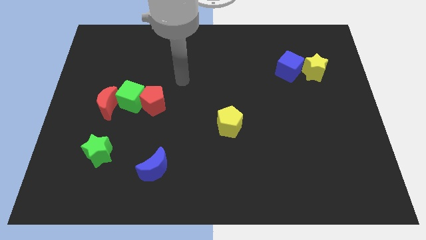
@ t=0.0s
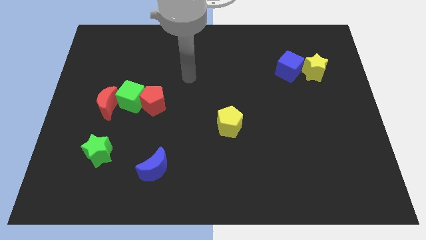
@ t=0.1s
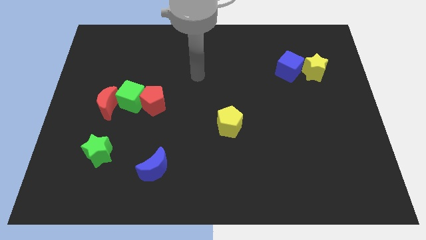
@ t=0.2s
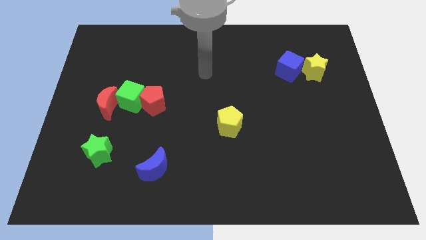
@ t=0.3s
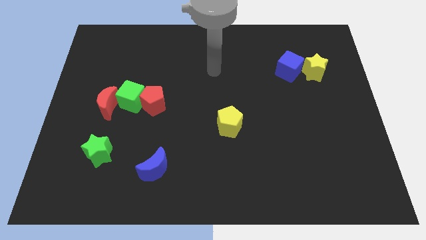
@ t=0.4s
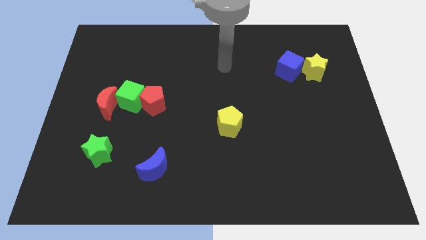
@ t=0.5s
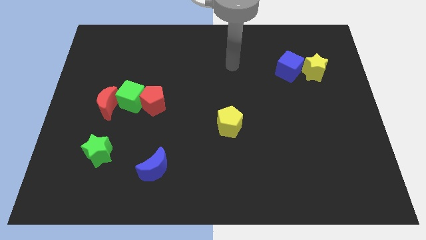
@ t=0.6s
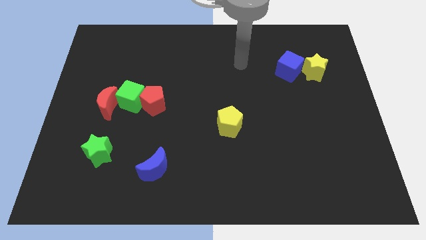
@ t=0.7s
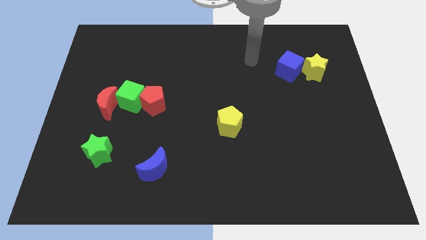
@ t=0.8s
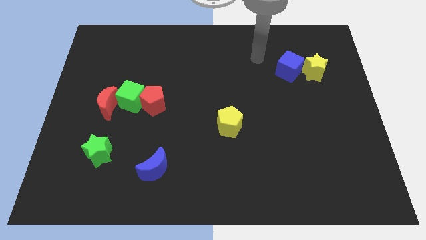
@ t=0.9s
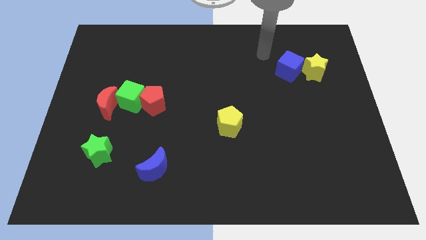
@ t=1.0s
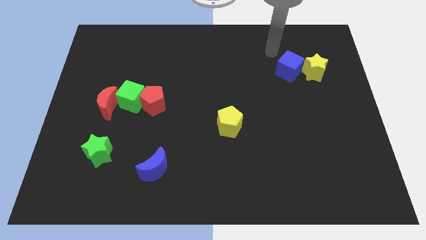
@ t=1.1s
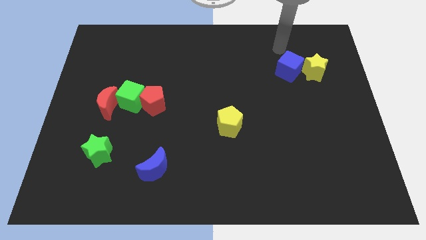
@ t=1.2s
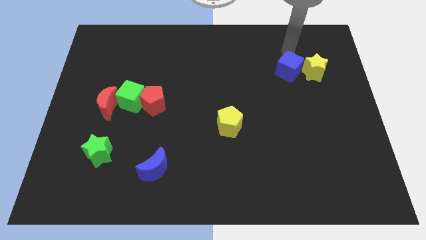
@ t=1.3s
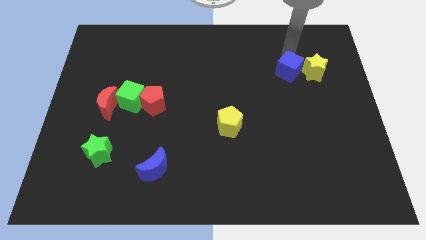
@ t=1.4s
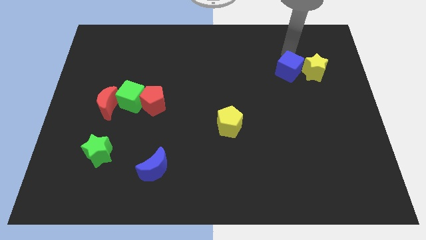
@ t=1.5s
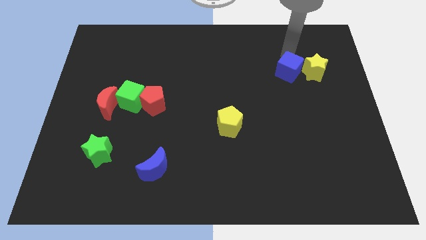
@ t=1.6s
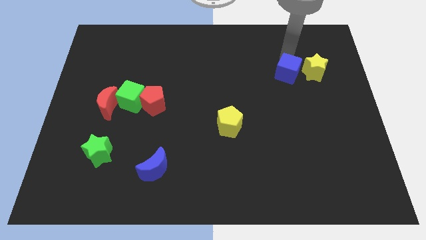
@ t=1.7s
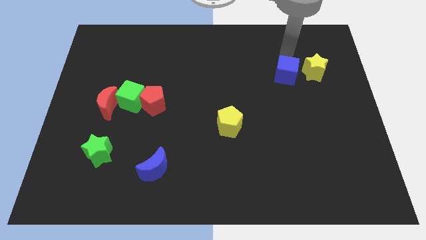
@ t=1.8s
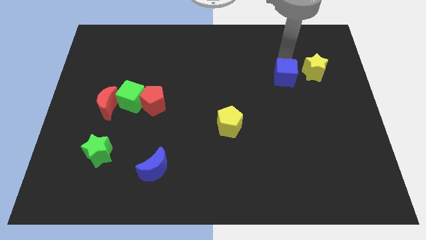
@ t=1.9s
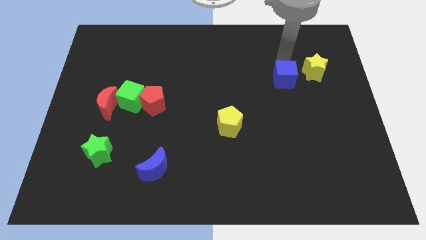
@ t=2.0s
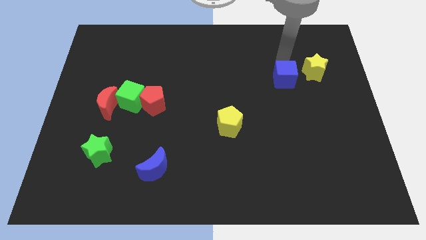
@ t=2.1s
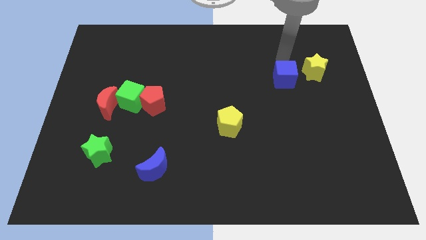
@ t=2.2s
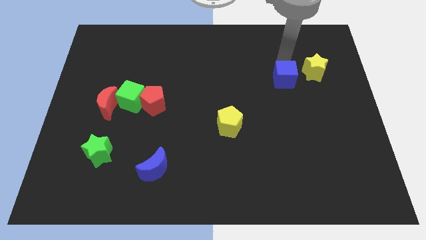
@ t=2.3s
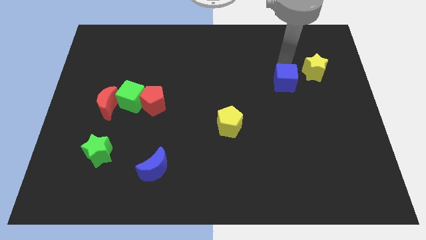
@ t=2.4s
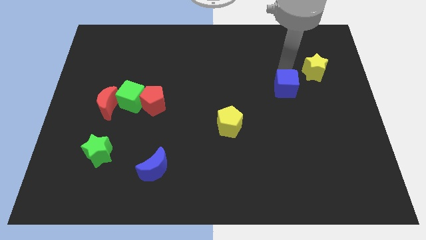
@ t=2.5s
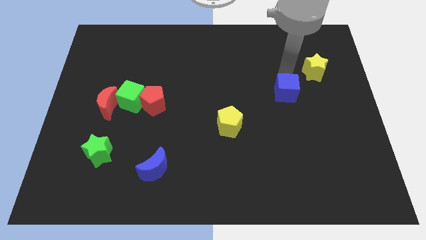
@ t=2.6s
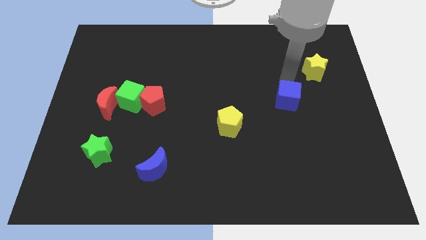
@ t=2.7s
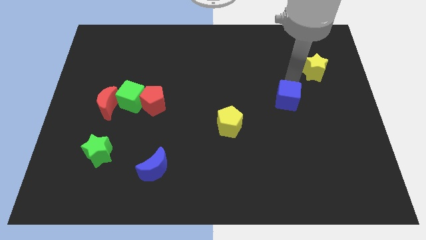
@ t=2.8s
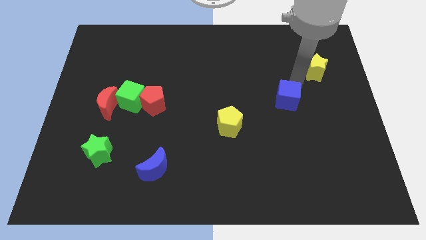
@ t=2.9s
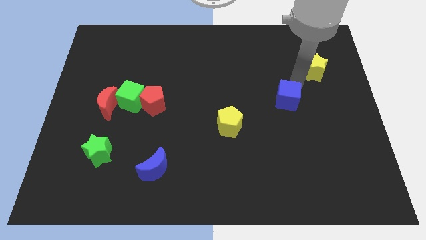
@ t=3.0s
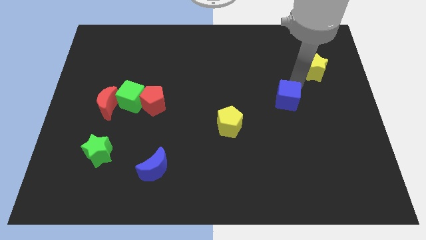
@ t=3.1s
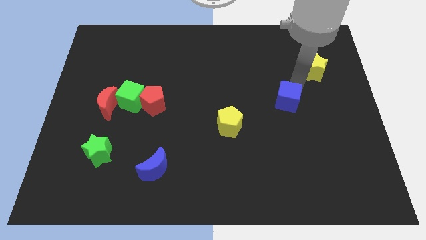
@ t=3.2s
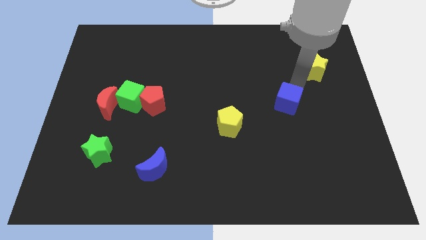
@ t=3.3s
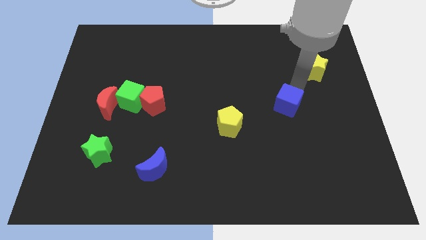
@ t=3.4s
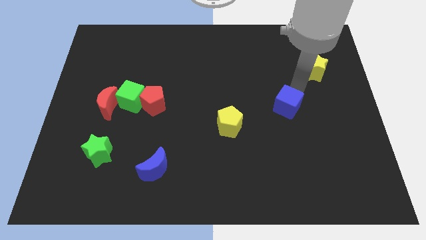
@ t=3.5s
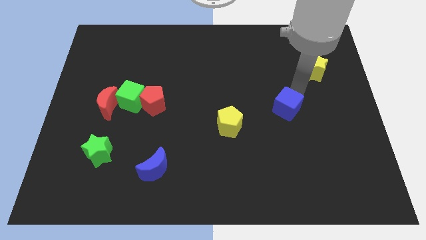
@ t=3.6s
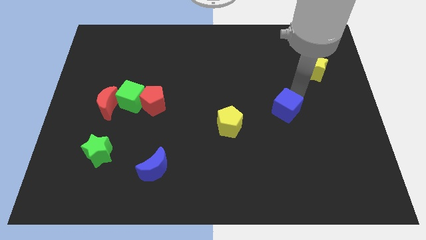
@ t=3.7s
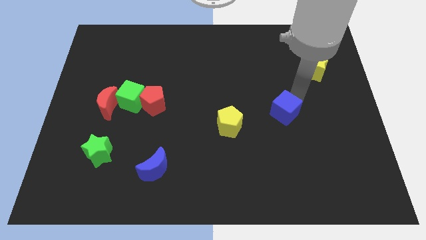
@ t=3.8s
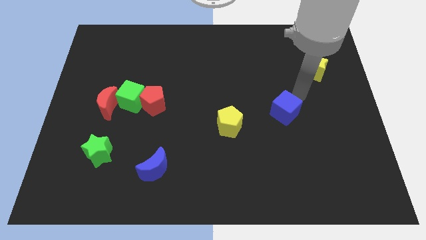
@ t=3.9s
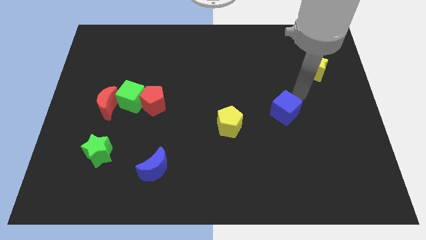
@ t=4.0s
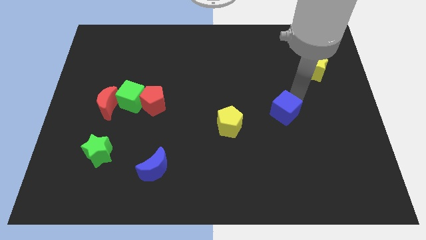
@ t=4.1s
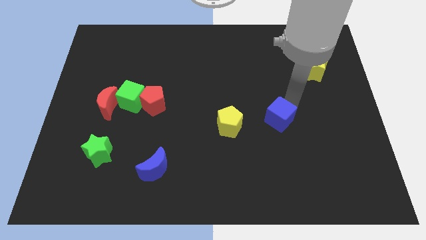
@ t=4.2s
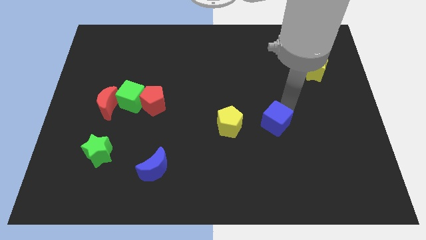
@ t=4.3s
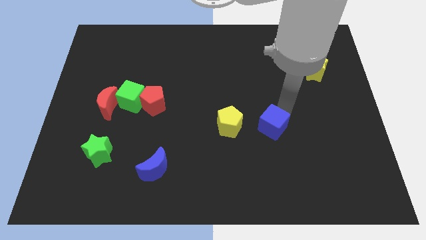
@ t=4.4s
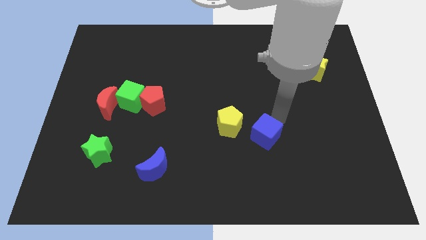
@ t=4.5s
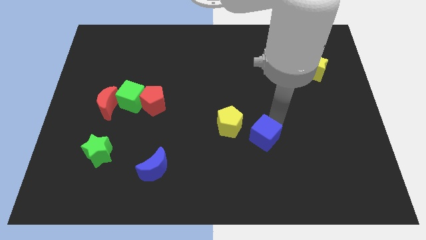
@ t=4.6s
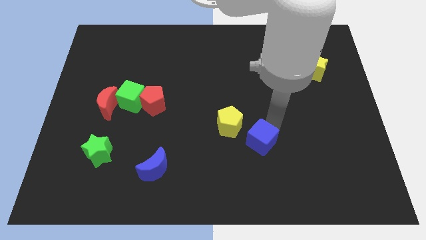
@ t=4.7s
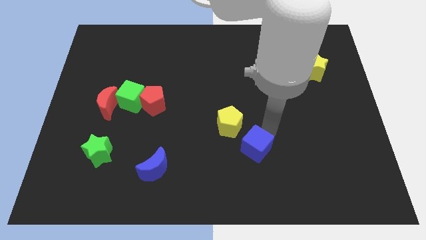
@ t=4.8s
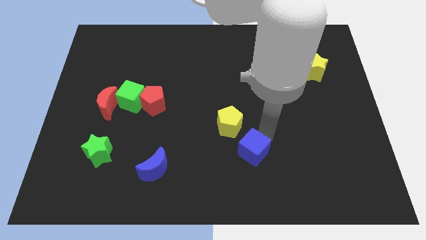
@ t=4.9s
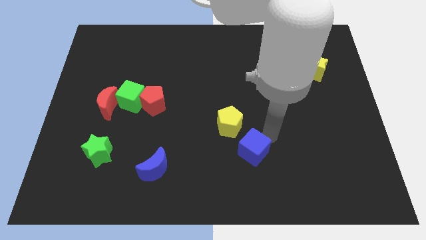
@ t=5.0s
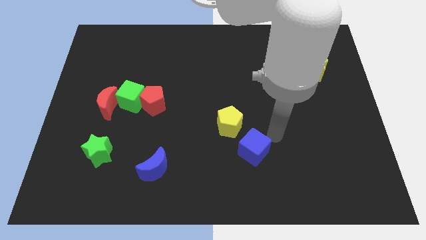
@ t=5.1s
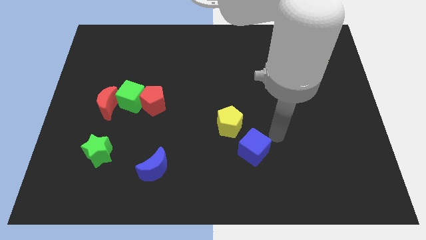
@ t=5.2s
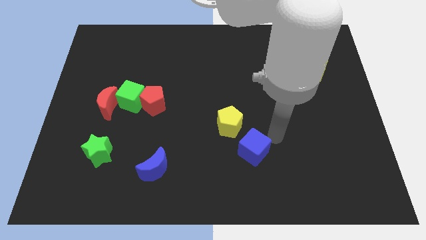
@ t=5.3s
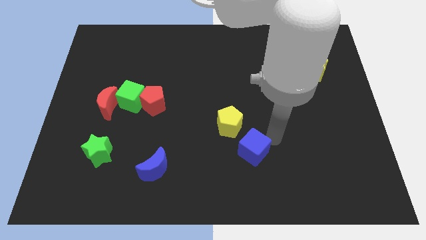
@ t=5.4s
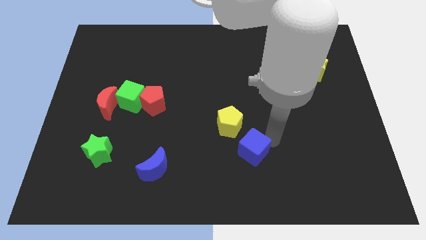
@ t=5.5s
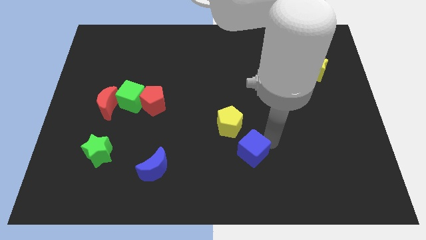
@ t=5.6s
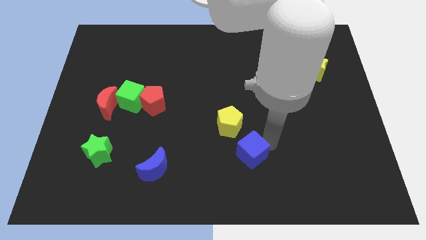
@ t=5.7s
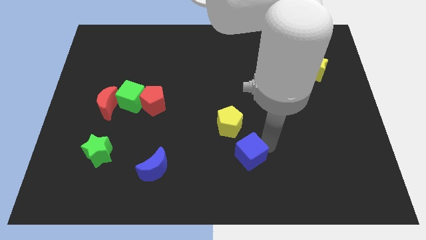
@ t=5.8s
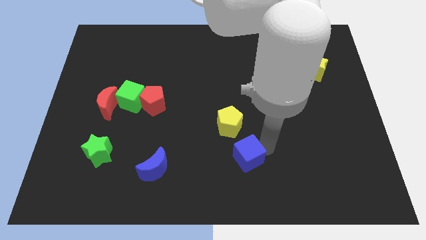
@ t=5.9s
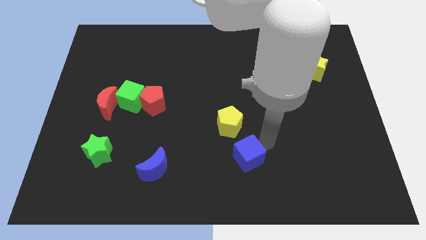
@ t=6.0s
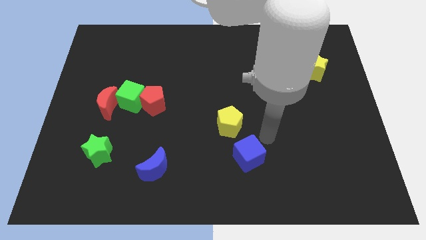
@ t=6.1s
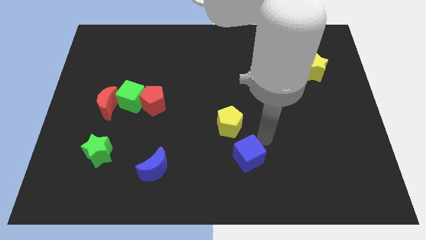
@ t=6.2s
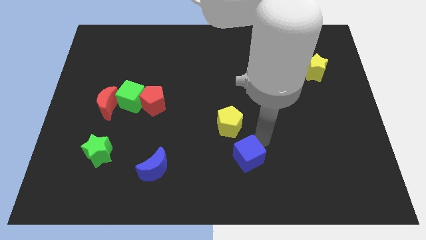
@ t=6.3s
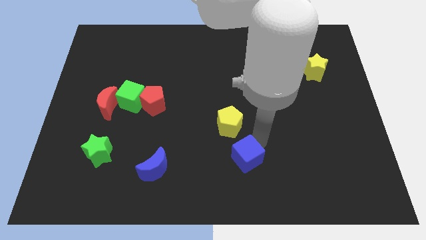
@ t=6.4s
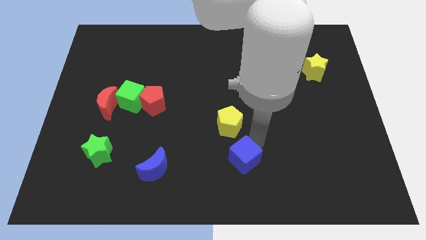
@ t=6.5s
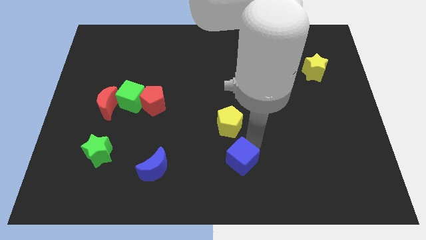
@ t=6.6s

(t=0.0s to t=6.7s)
push the blue cube to the bottom
